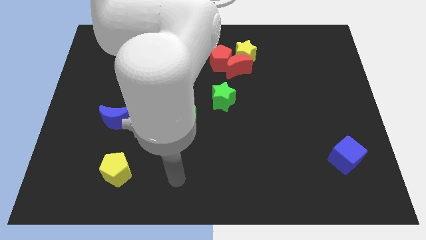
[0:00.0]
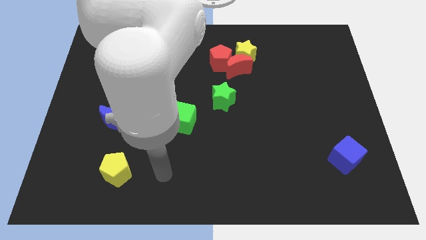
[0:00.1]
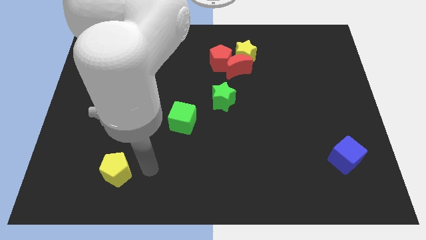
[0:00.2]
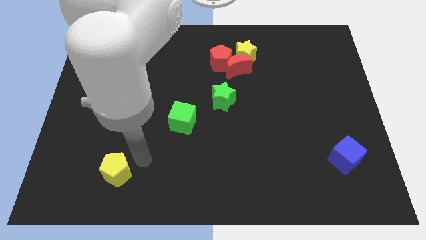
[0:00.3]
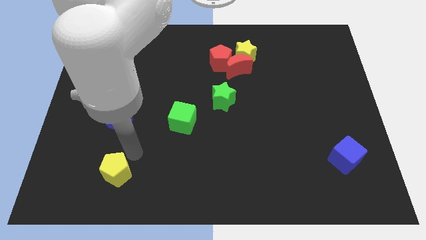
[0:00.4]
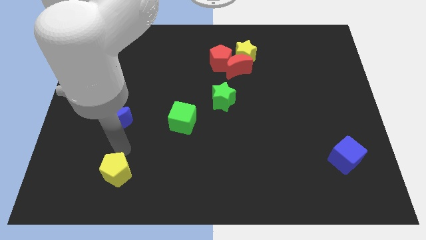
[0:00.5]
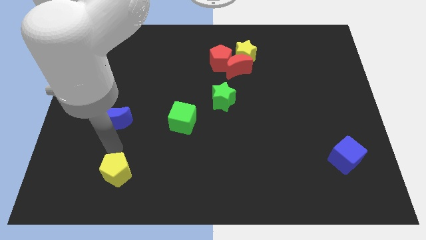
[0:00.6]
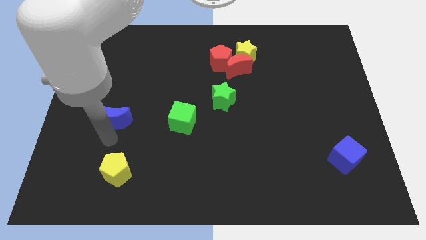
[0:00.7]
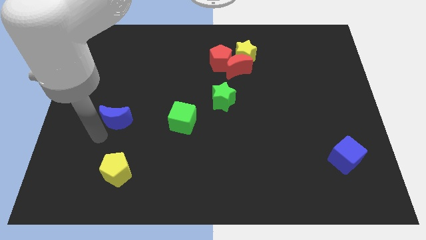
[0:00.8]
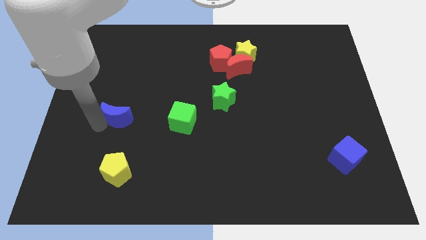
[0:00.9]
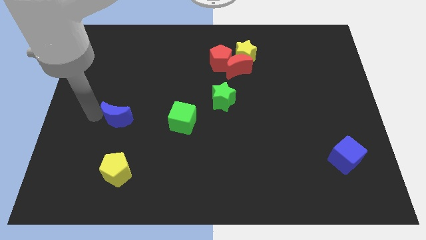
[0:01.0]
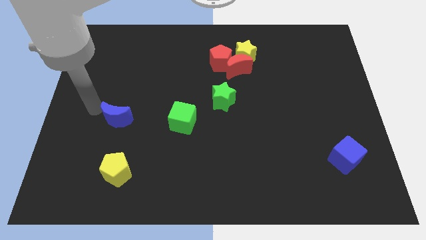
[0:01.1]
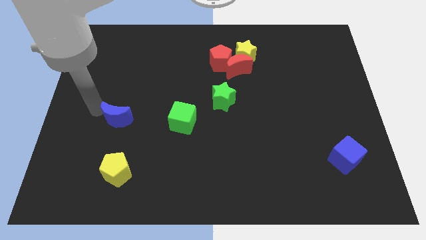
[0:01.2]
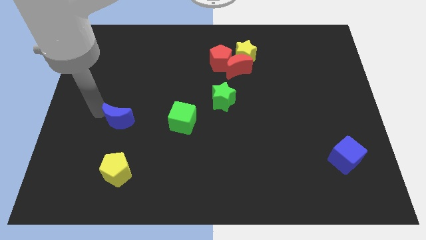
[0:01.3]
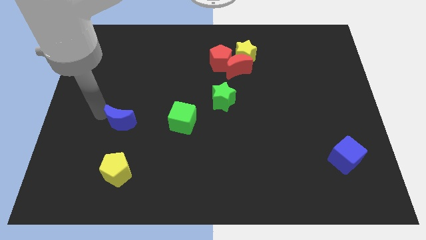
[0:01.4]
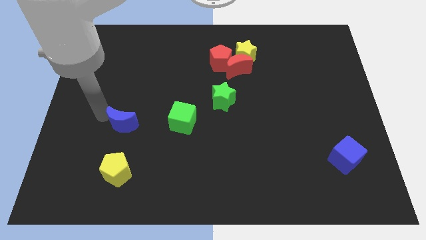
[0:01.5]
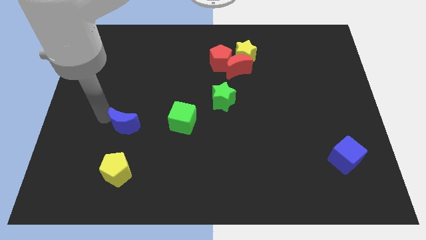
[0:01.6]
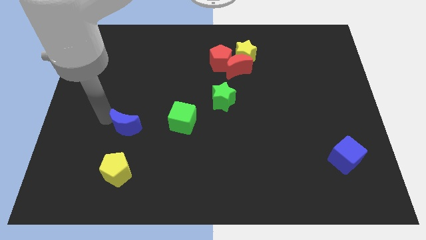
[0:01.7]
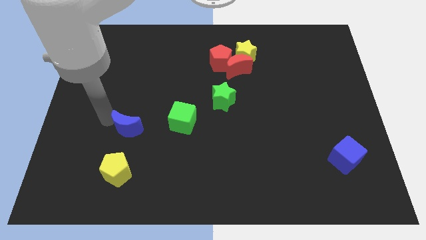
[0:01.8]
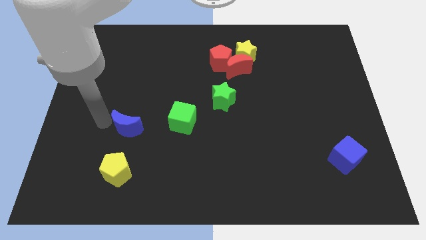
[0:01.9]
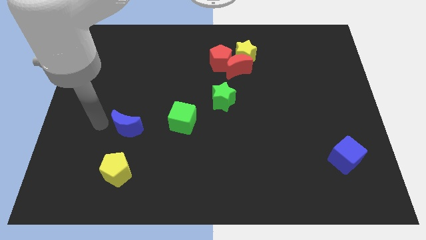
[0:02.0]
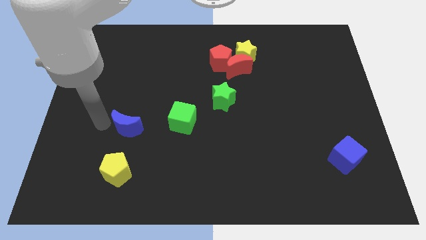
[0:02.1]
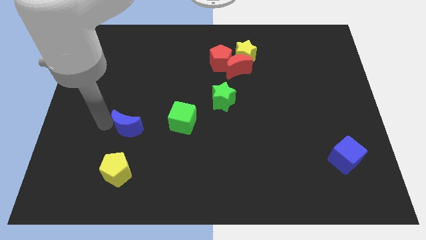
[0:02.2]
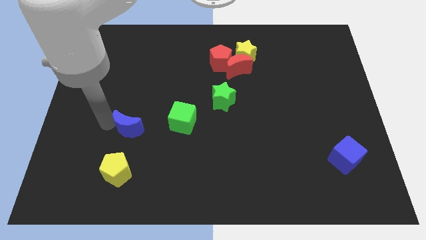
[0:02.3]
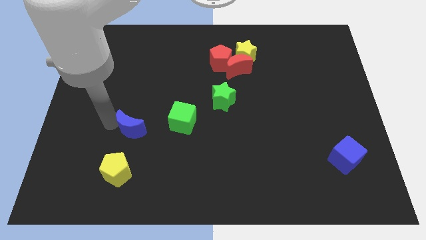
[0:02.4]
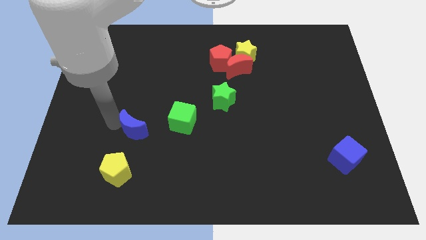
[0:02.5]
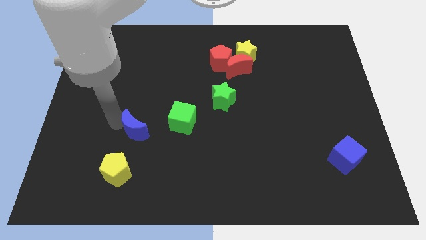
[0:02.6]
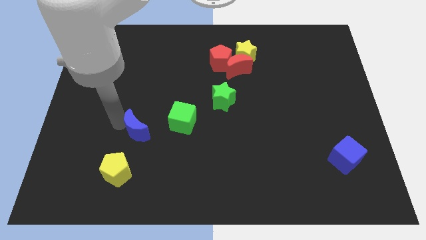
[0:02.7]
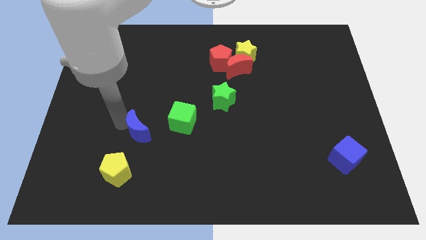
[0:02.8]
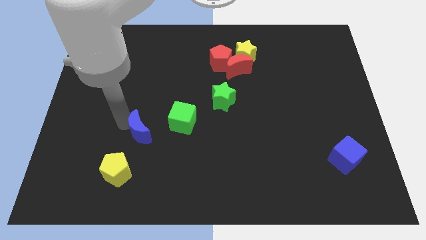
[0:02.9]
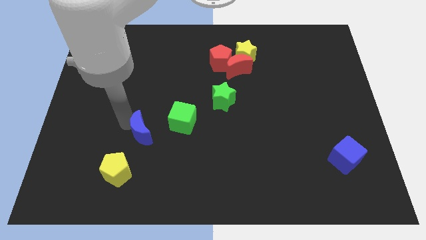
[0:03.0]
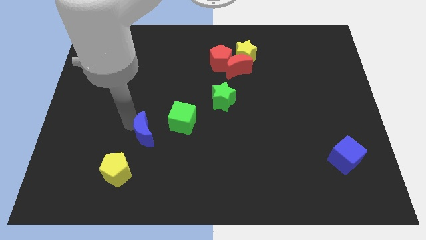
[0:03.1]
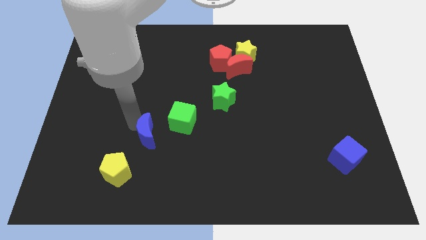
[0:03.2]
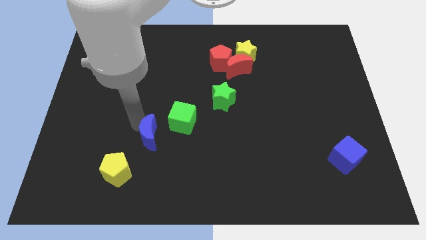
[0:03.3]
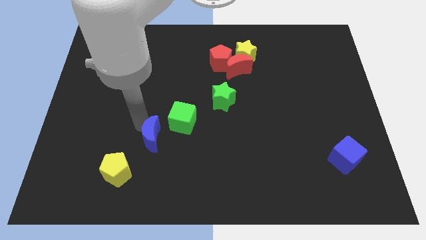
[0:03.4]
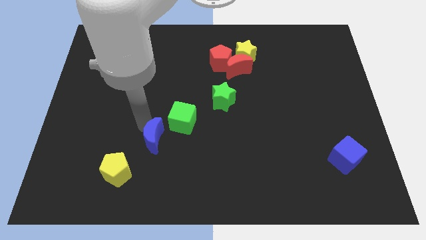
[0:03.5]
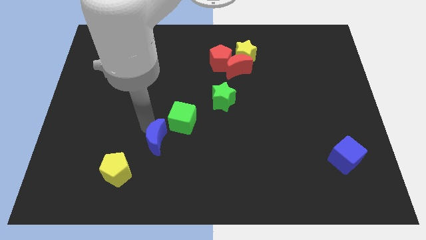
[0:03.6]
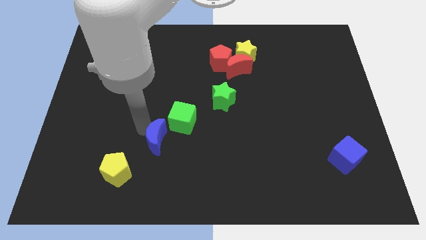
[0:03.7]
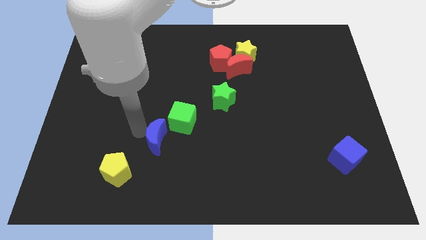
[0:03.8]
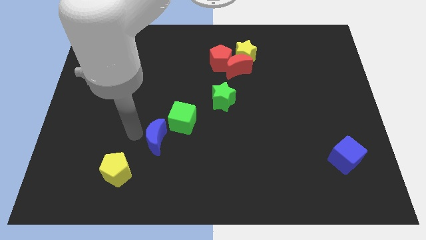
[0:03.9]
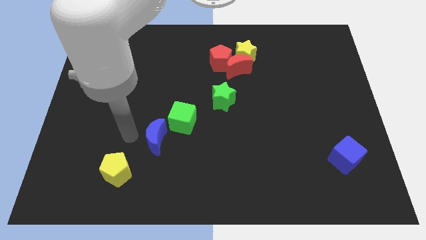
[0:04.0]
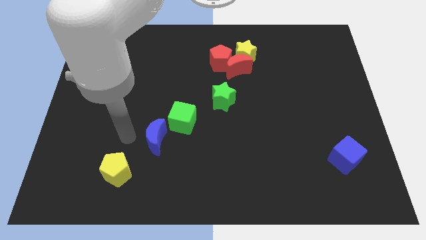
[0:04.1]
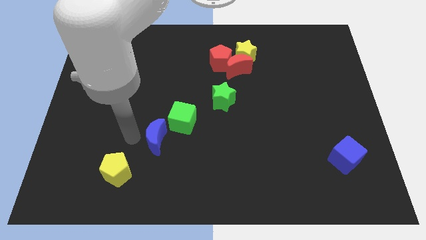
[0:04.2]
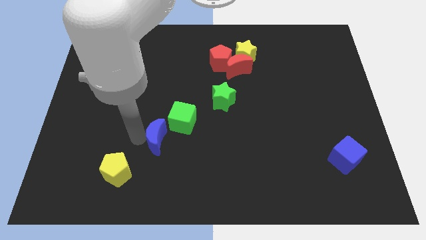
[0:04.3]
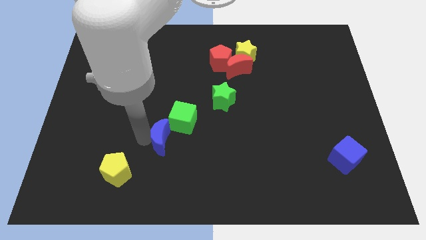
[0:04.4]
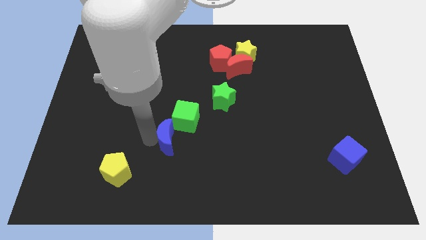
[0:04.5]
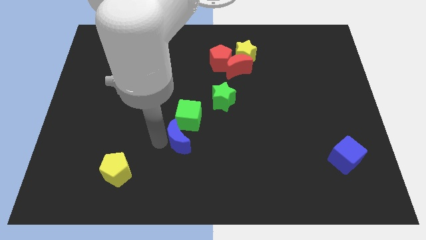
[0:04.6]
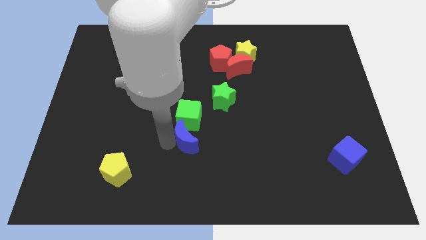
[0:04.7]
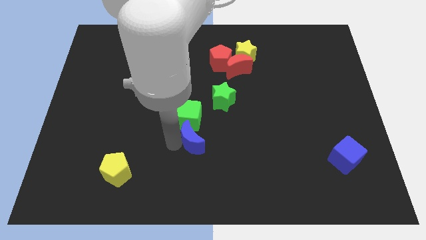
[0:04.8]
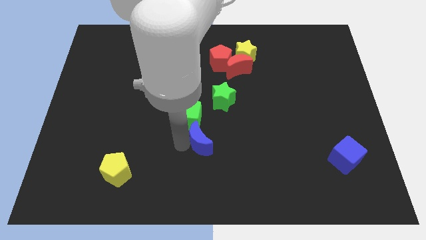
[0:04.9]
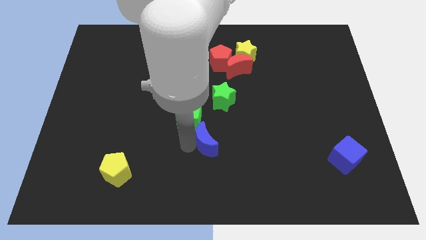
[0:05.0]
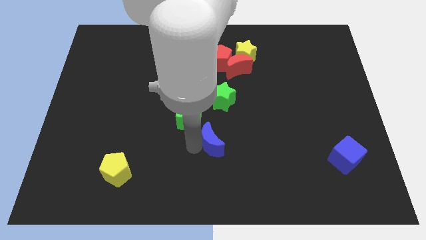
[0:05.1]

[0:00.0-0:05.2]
slide the blue moon to the right

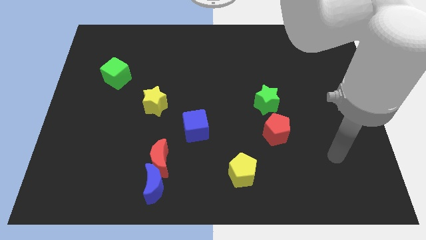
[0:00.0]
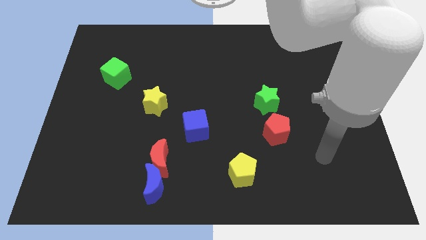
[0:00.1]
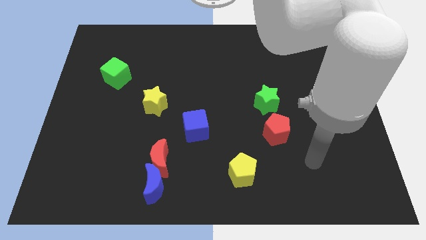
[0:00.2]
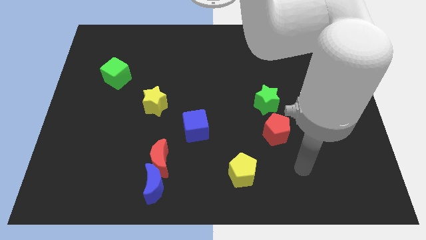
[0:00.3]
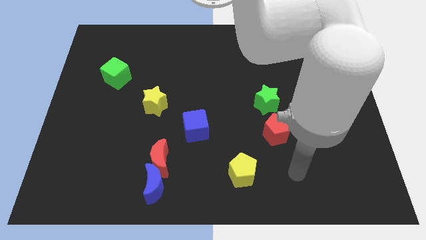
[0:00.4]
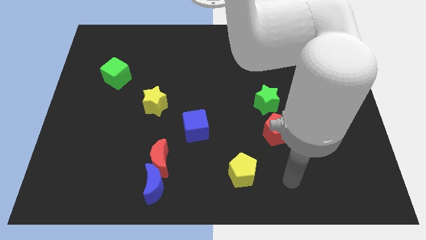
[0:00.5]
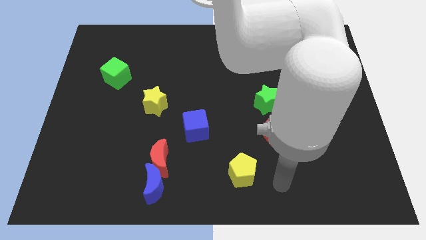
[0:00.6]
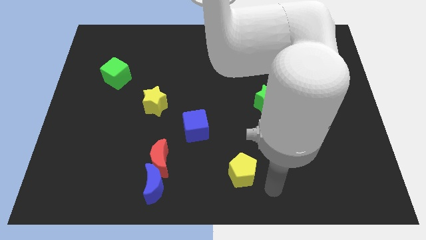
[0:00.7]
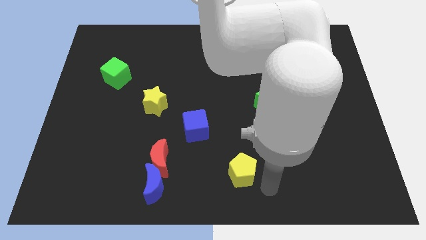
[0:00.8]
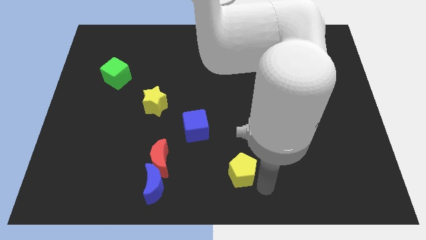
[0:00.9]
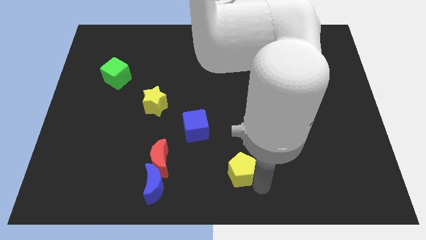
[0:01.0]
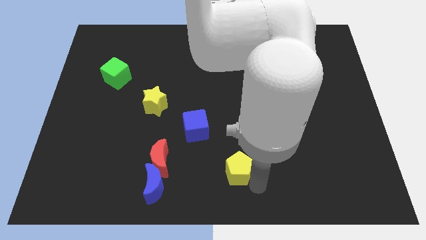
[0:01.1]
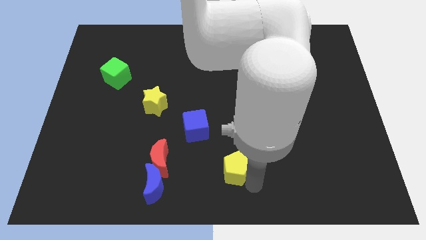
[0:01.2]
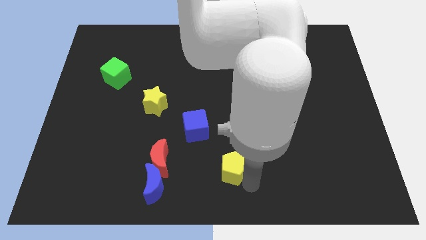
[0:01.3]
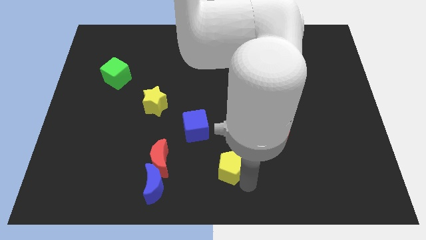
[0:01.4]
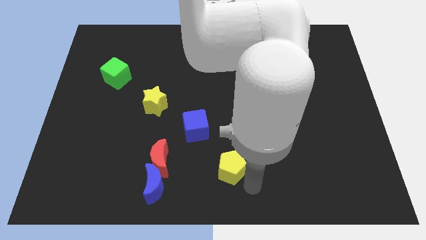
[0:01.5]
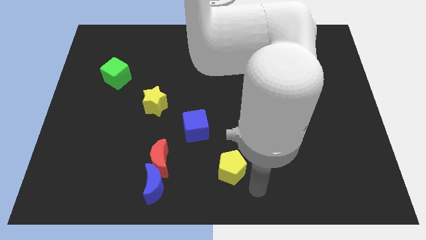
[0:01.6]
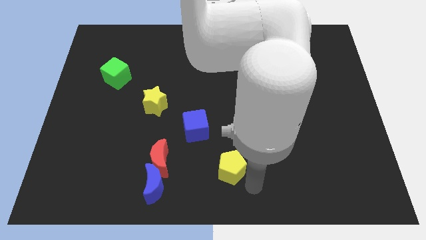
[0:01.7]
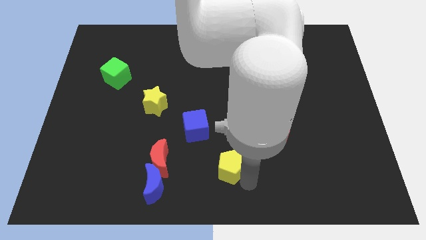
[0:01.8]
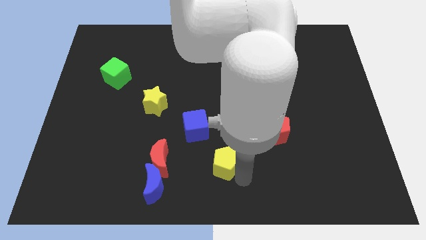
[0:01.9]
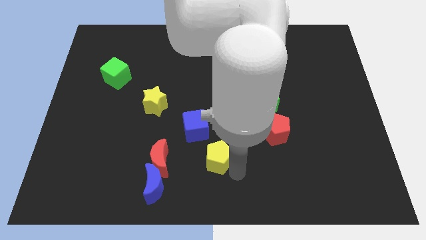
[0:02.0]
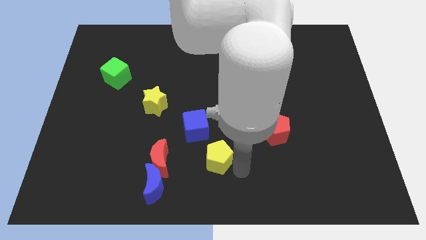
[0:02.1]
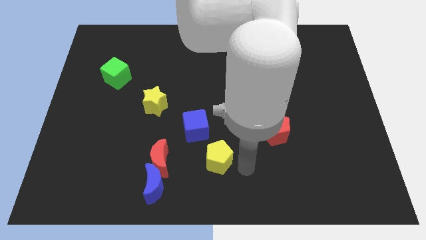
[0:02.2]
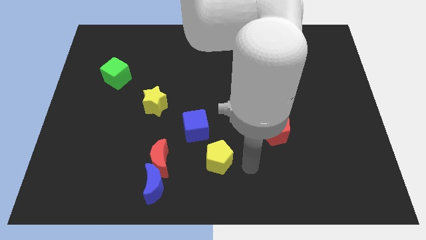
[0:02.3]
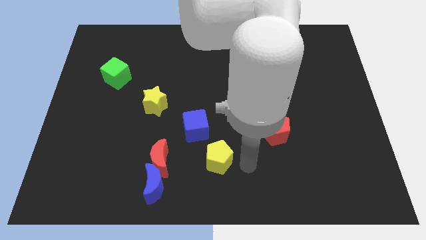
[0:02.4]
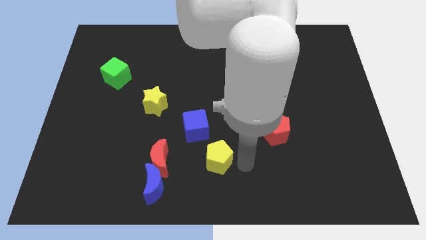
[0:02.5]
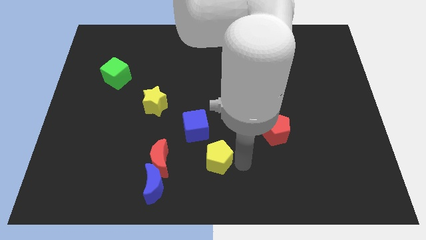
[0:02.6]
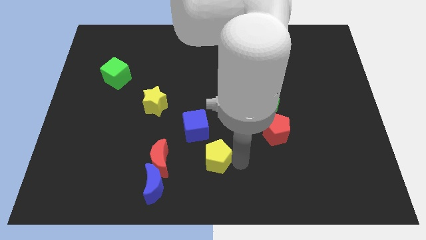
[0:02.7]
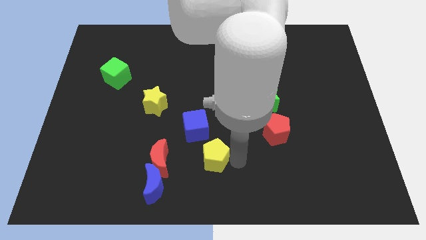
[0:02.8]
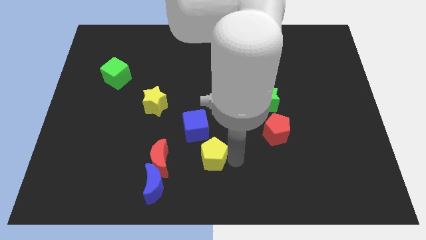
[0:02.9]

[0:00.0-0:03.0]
push the yellow pentagon slightly upwards and left diagonally
